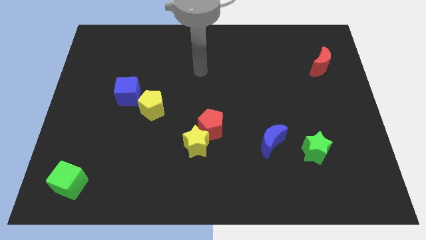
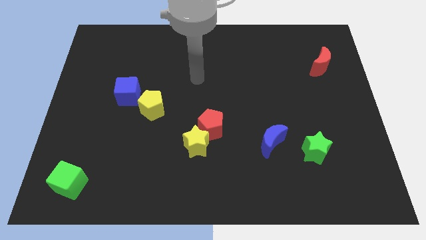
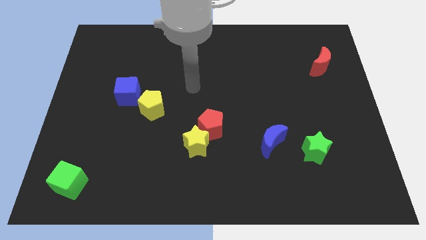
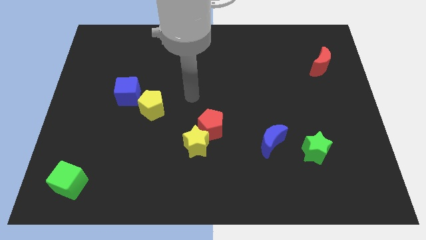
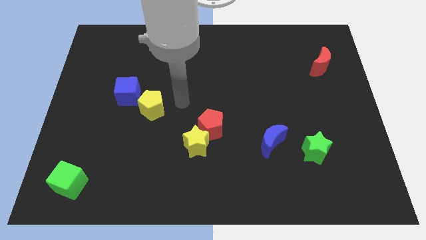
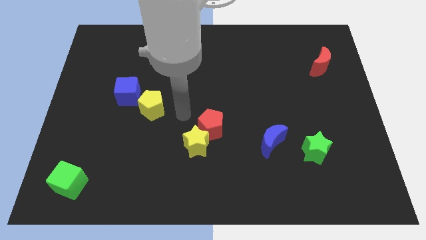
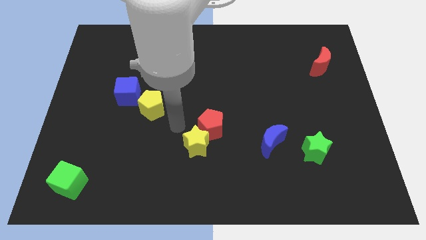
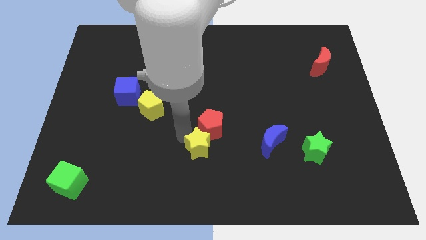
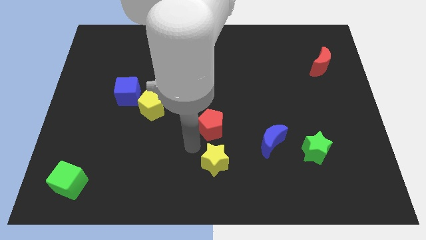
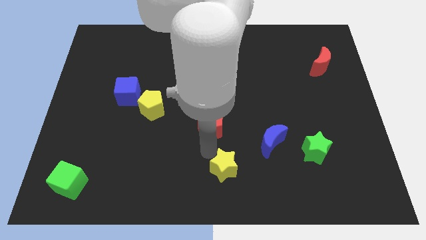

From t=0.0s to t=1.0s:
pull the red pentagon apart from the yellow star

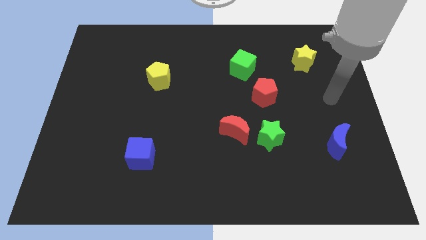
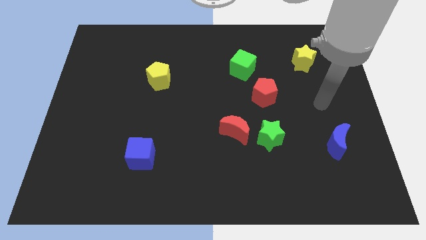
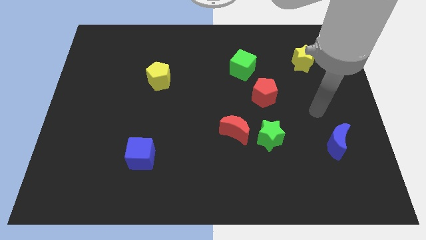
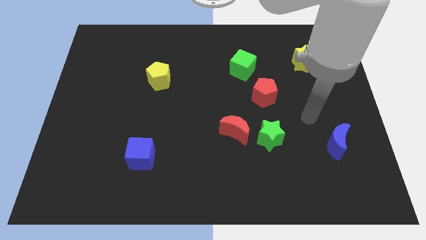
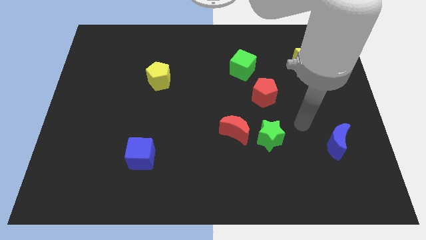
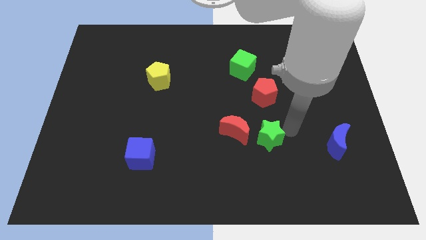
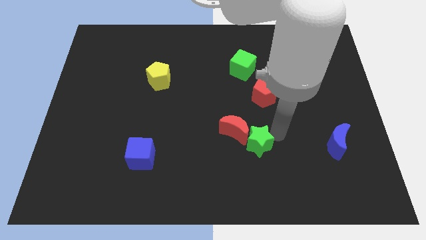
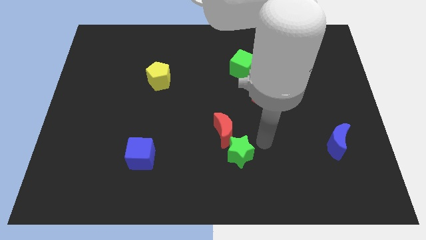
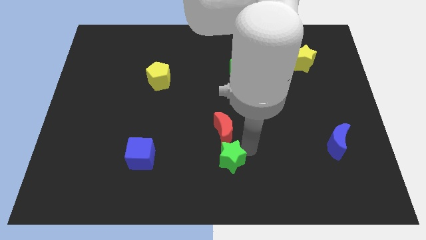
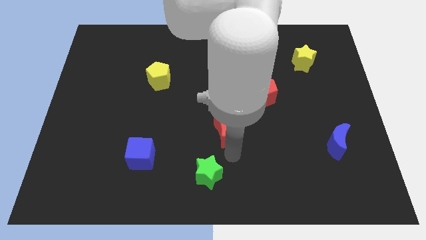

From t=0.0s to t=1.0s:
move the red moon away from the green star

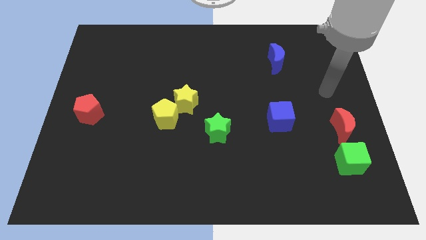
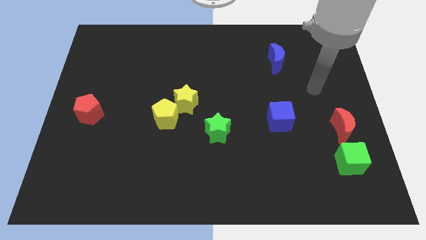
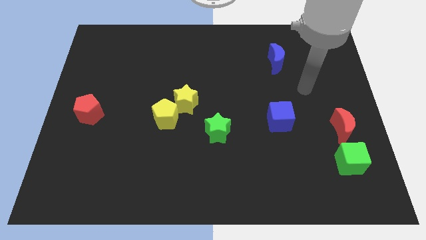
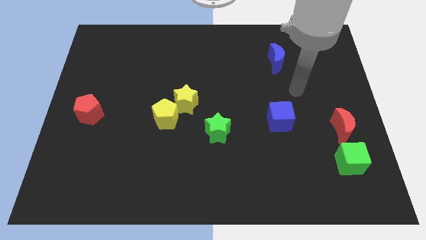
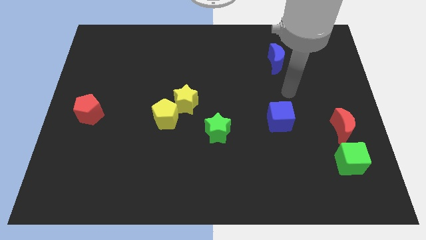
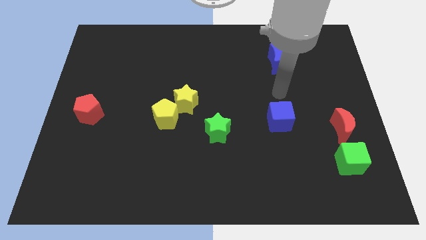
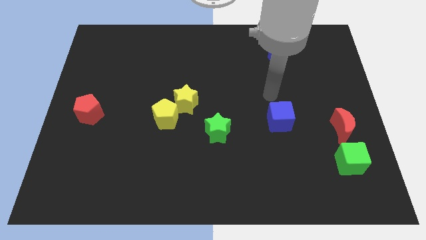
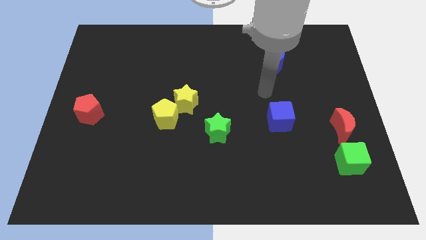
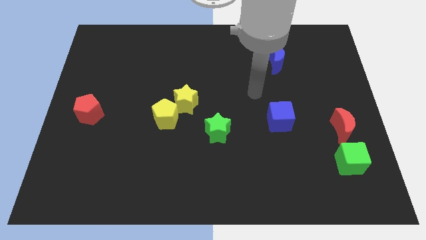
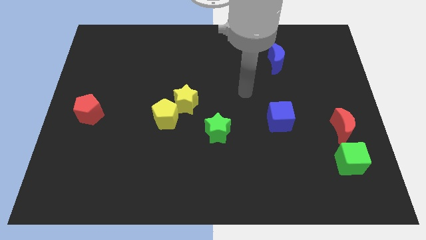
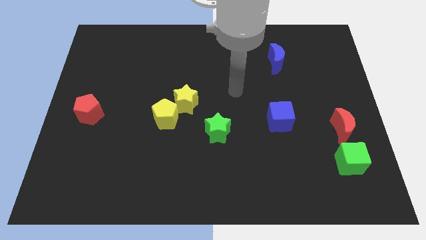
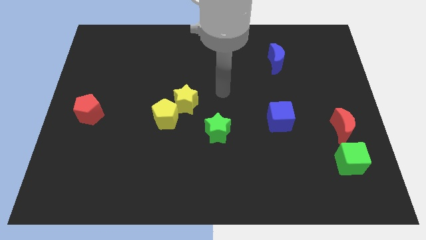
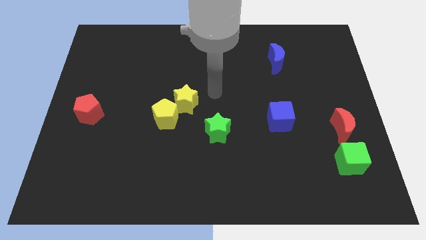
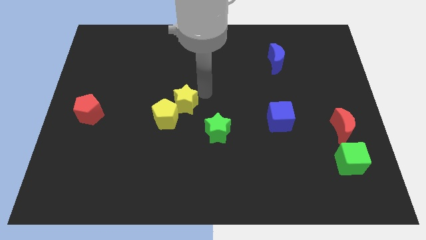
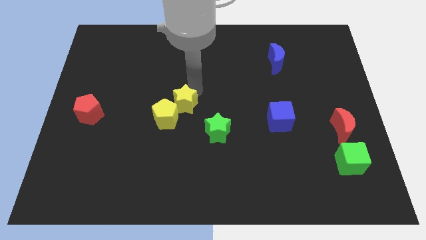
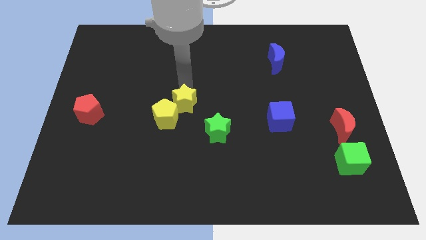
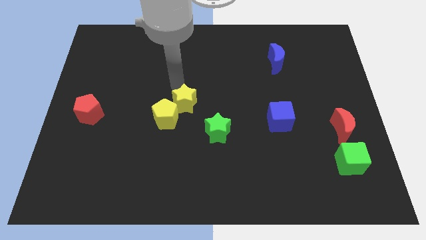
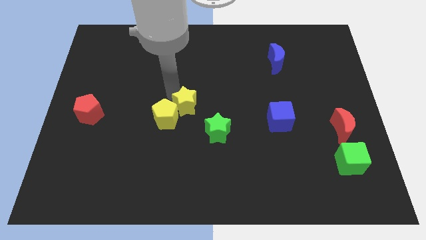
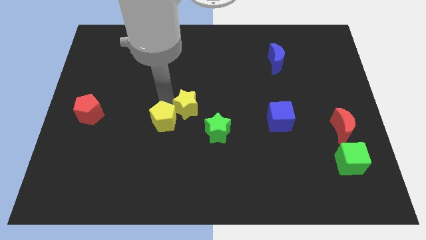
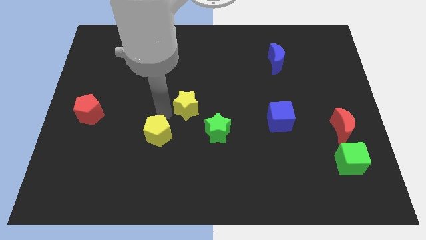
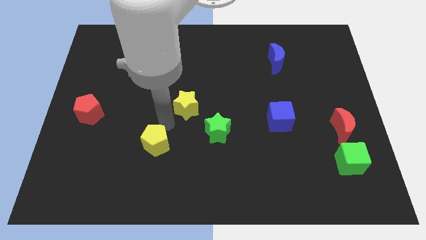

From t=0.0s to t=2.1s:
separate the yellow star from the yellow pentagon

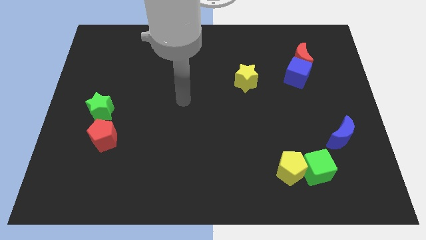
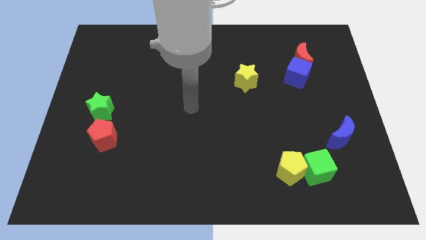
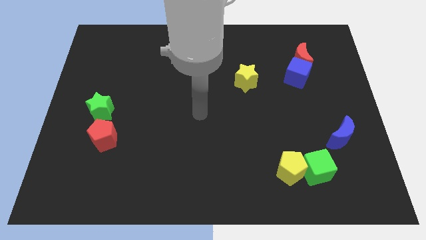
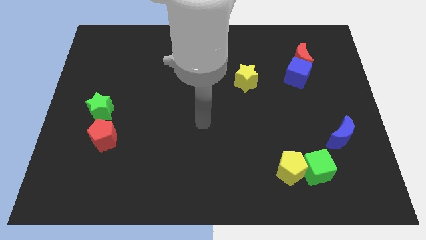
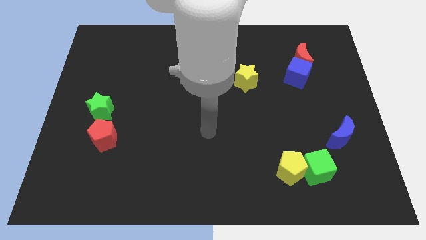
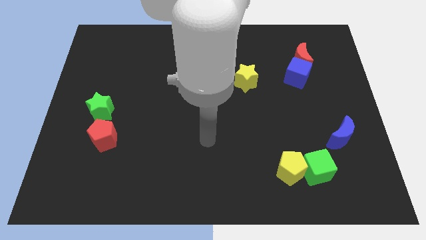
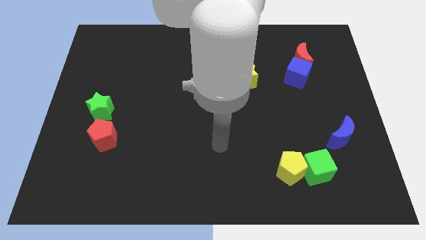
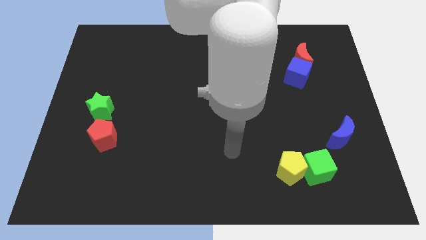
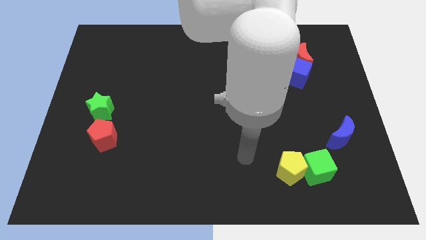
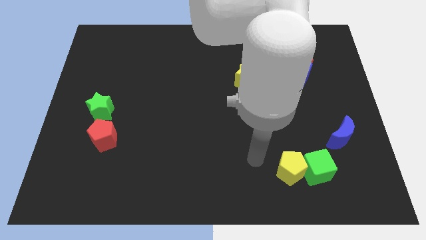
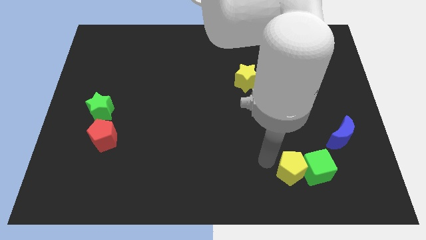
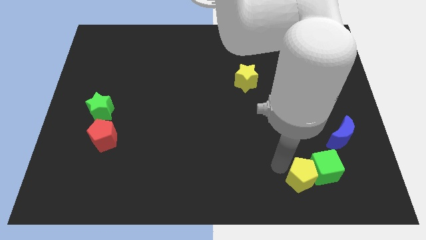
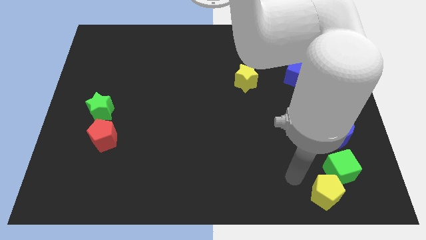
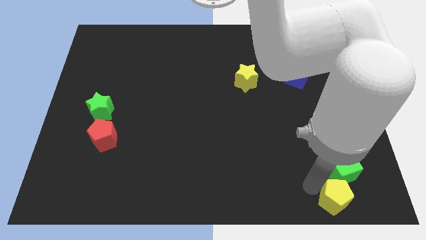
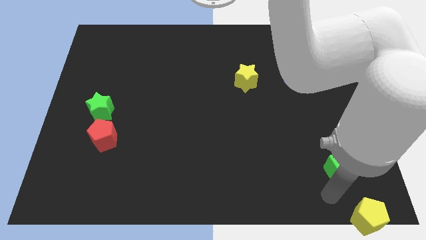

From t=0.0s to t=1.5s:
pull the green cube apart from the yellow pentagon

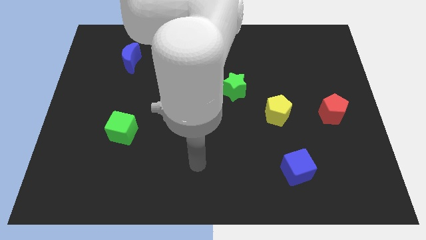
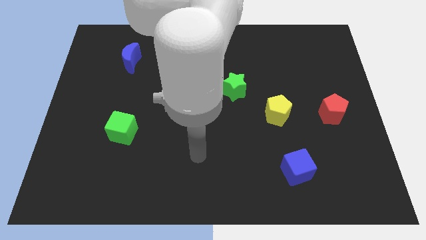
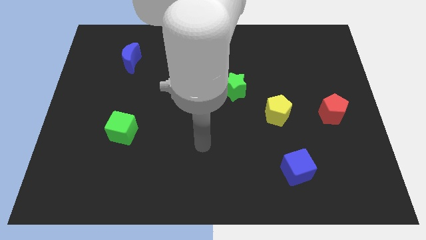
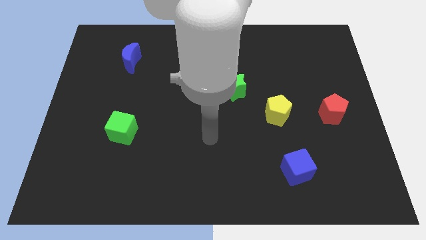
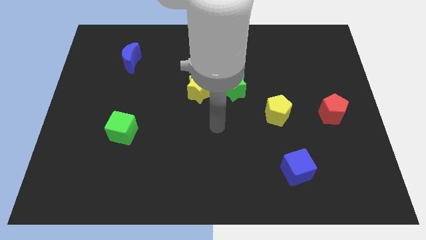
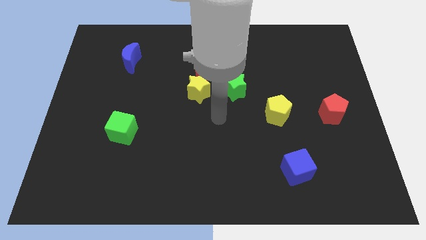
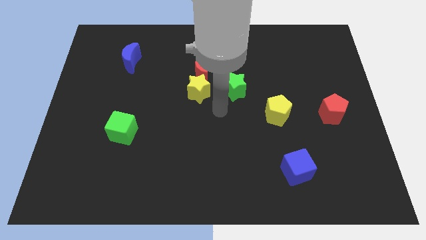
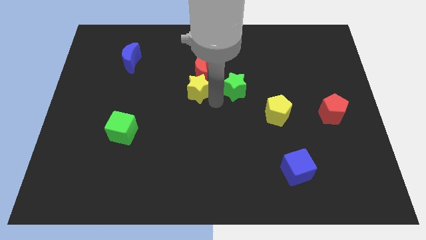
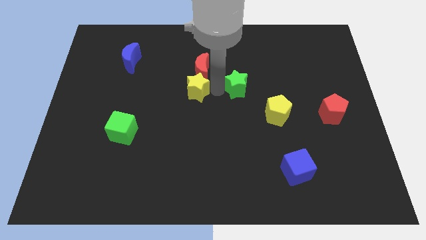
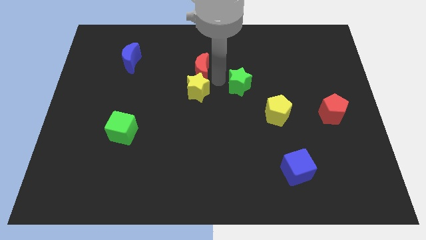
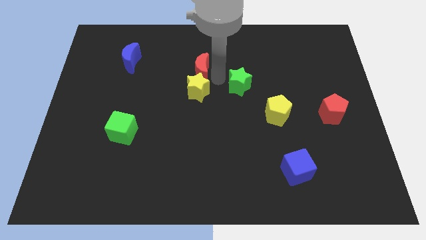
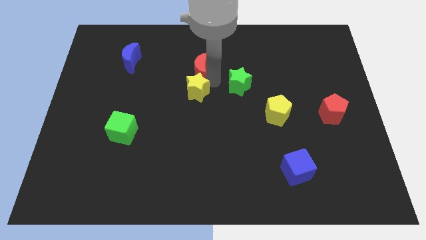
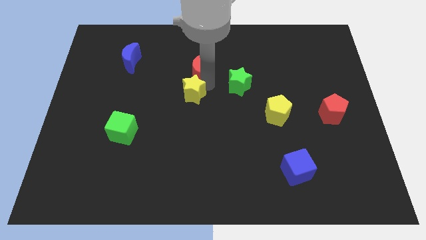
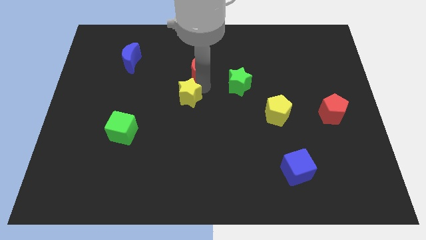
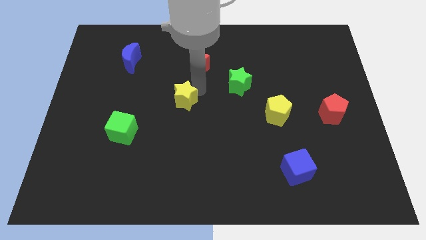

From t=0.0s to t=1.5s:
move the yellow star away from the red moon and green star

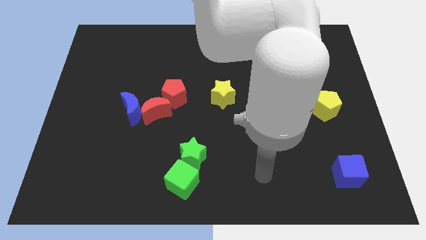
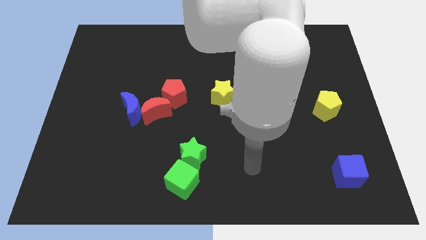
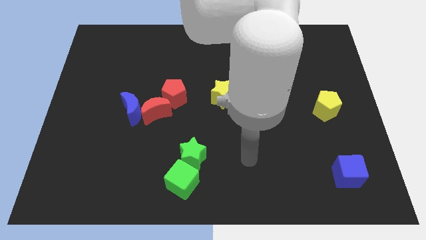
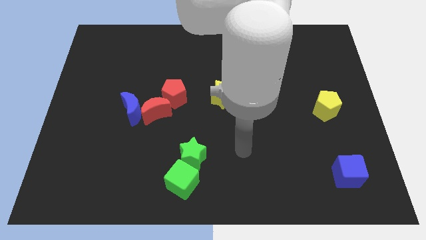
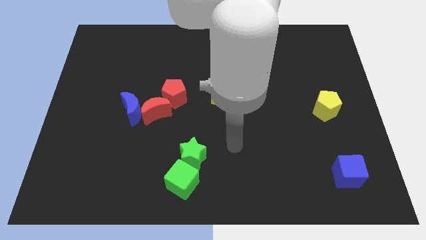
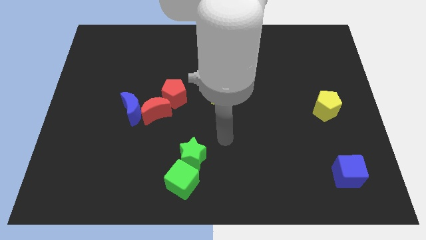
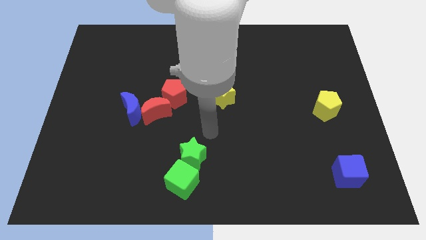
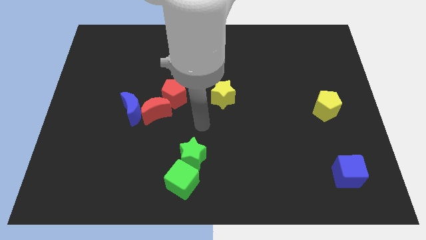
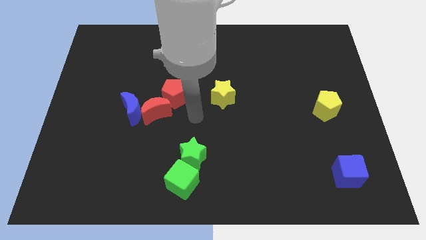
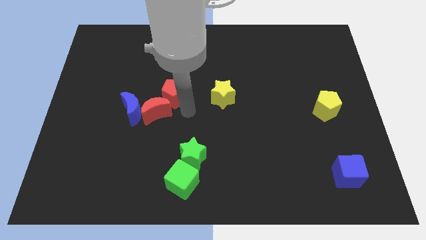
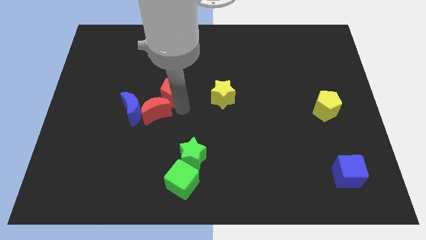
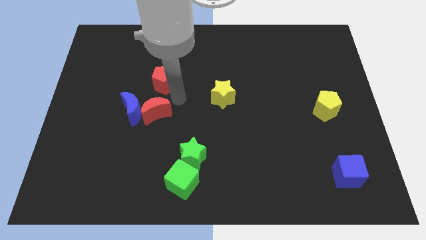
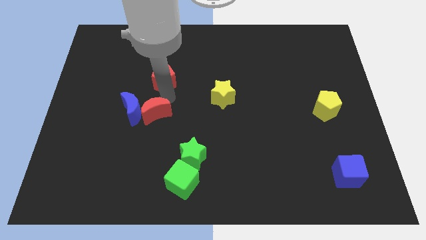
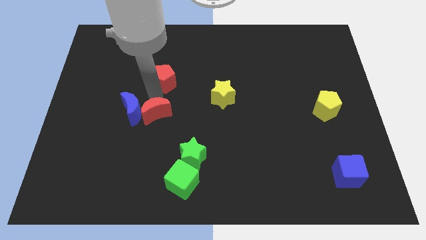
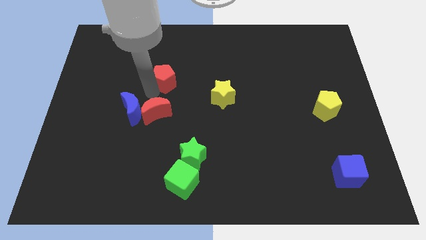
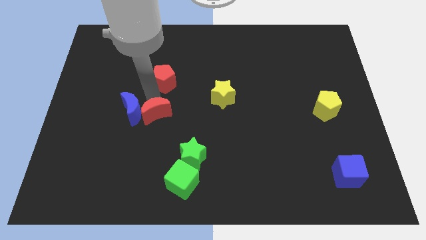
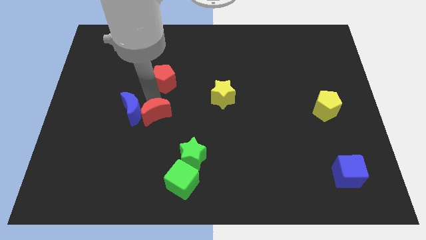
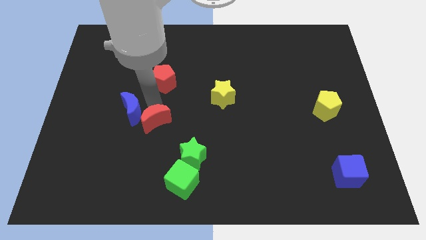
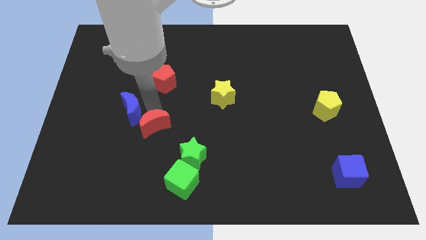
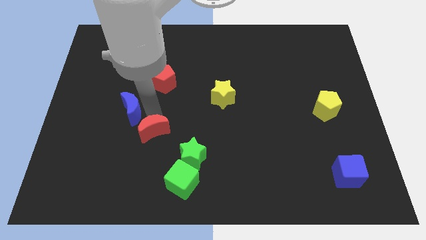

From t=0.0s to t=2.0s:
move the red moon away from the blue moon and red pentagon

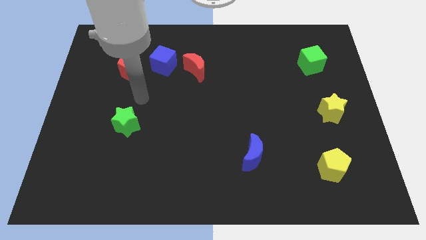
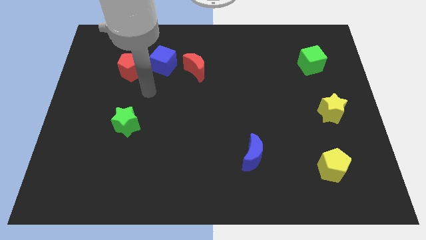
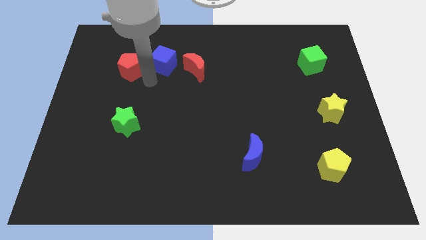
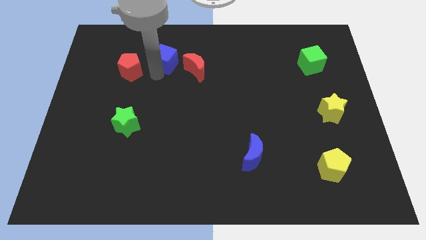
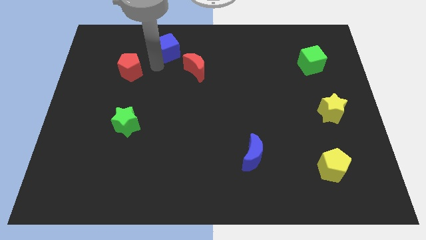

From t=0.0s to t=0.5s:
pull the red pentagon apart from the blue cube
